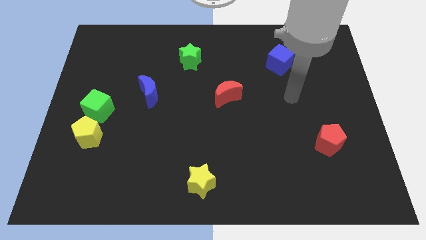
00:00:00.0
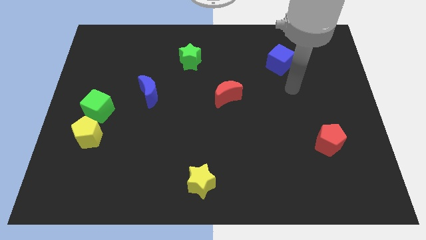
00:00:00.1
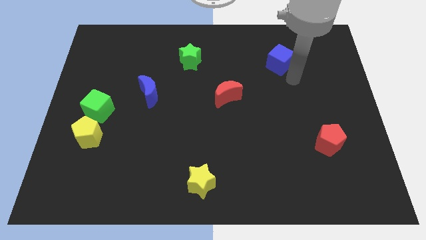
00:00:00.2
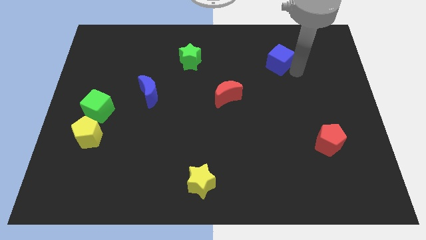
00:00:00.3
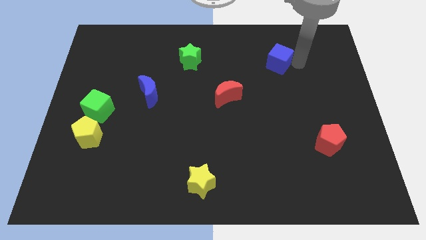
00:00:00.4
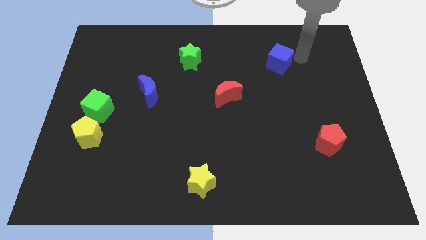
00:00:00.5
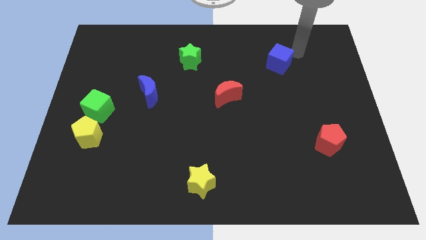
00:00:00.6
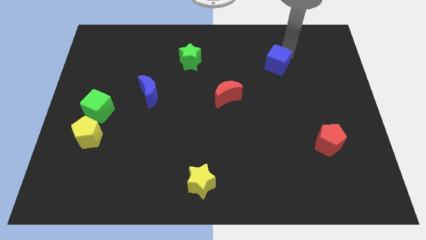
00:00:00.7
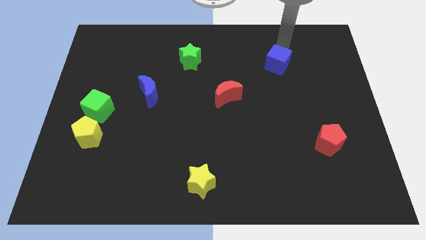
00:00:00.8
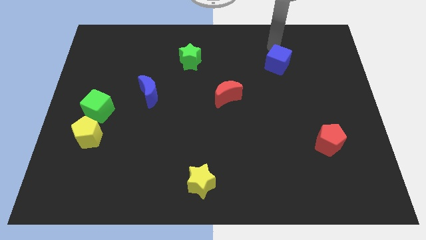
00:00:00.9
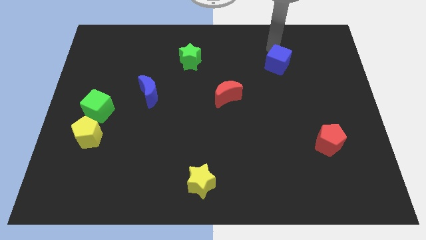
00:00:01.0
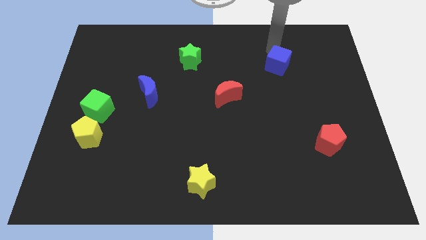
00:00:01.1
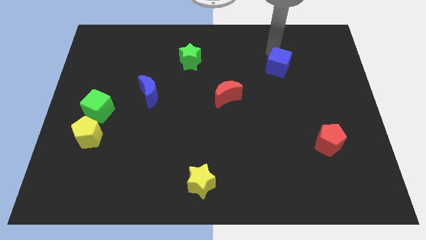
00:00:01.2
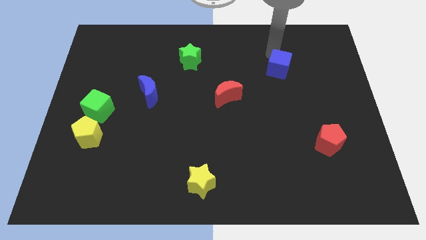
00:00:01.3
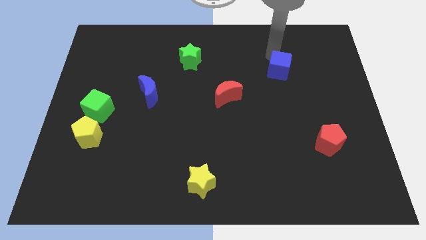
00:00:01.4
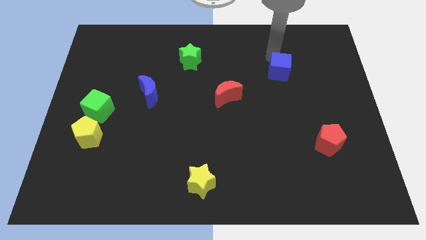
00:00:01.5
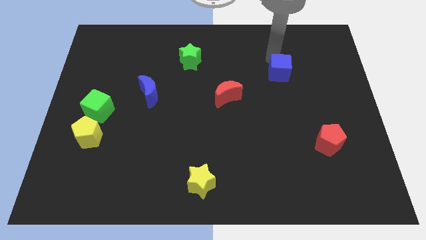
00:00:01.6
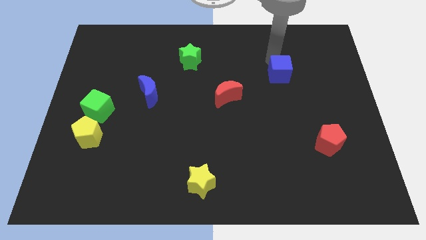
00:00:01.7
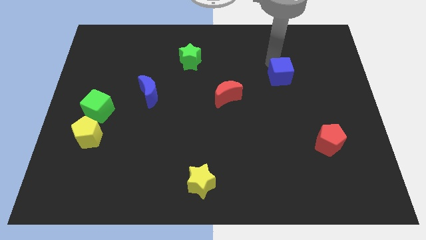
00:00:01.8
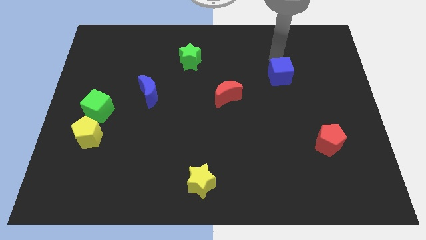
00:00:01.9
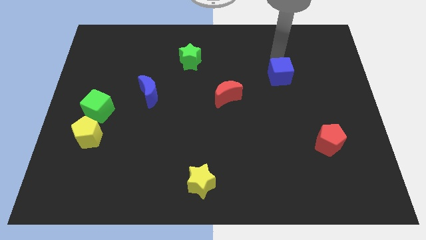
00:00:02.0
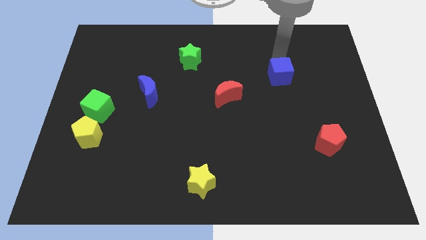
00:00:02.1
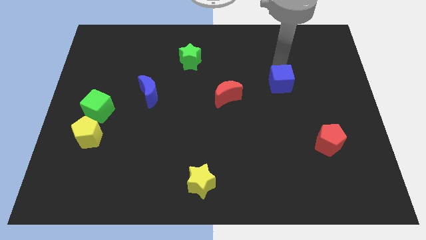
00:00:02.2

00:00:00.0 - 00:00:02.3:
slightly slide the blue cube down

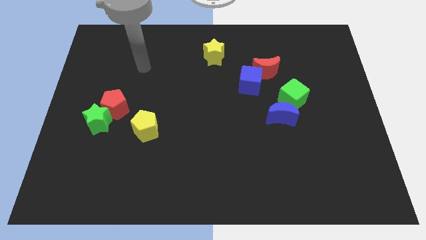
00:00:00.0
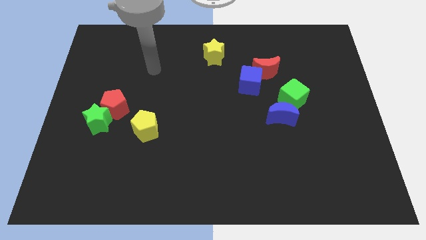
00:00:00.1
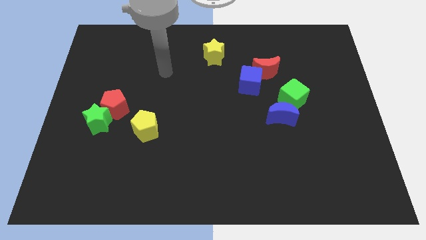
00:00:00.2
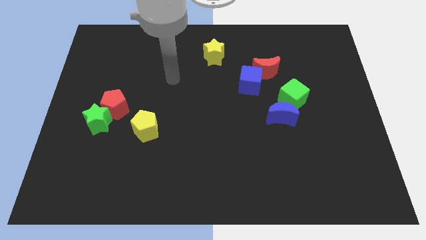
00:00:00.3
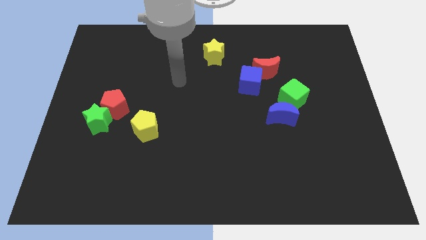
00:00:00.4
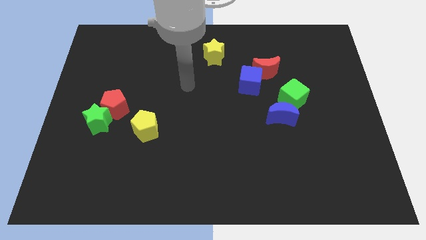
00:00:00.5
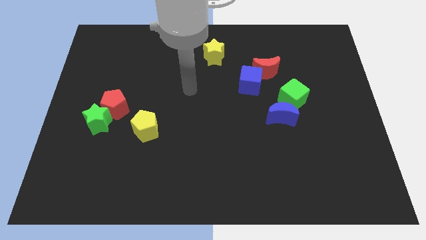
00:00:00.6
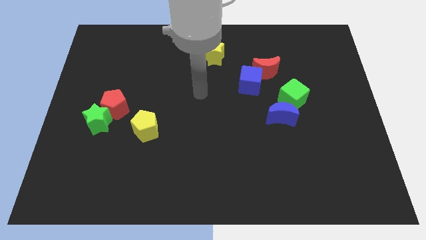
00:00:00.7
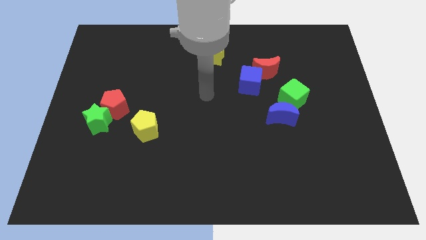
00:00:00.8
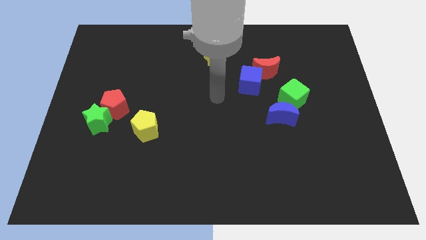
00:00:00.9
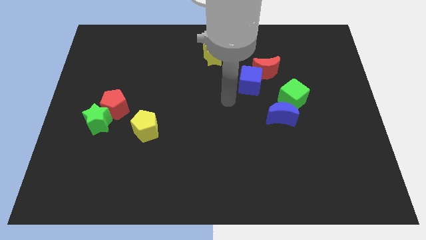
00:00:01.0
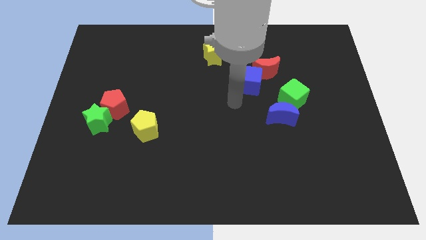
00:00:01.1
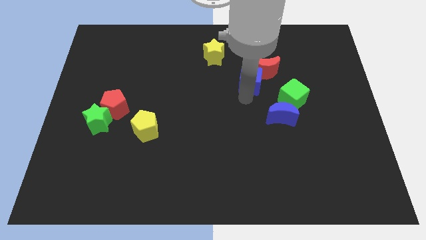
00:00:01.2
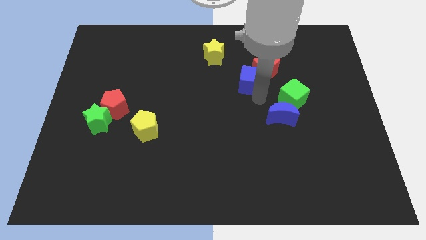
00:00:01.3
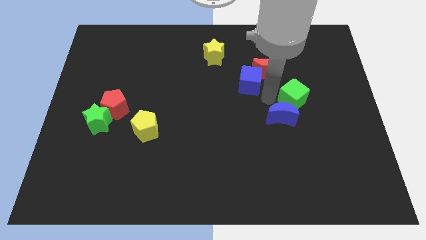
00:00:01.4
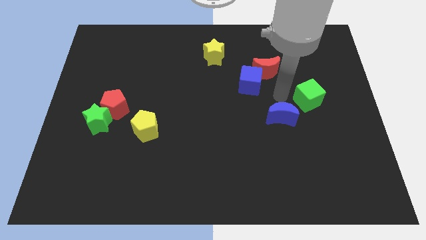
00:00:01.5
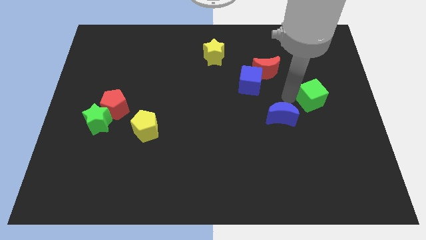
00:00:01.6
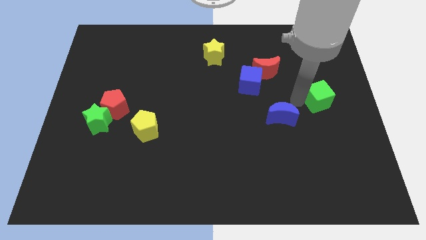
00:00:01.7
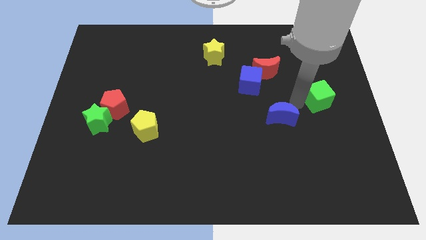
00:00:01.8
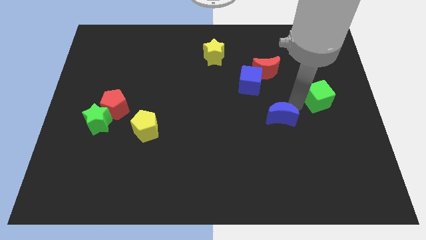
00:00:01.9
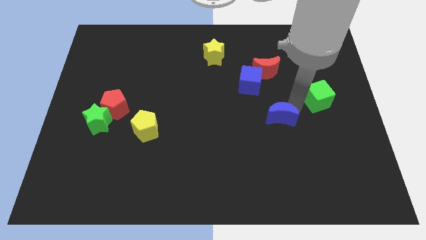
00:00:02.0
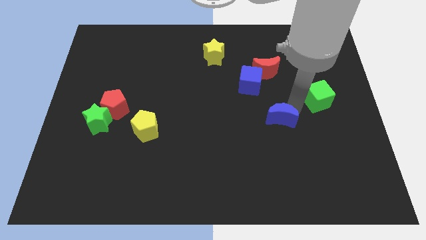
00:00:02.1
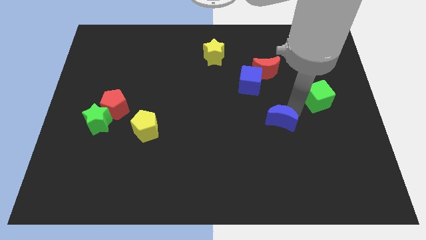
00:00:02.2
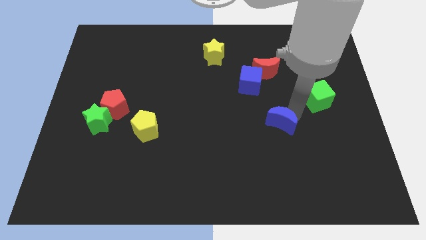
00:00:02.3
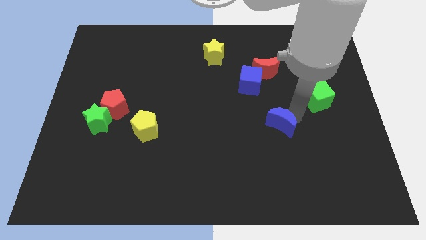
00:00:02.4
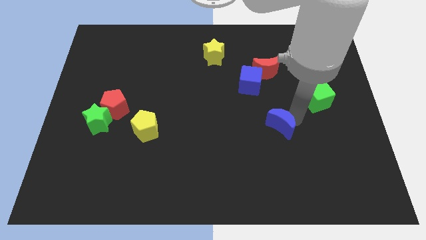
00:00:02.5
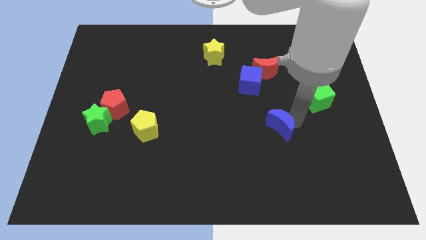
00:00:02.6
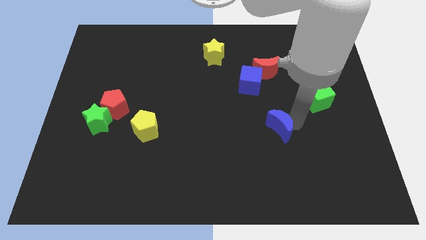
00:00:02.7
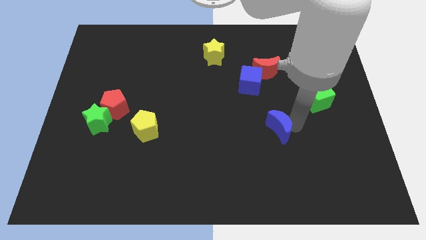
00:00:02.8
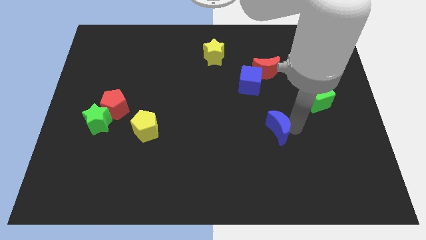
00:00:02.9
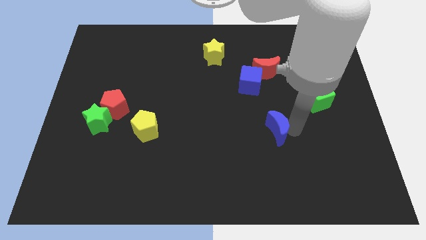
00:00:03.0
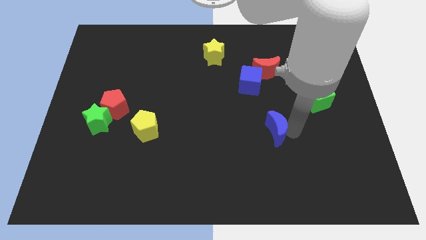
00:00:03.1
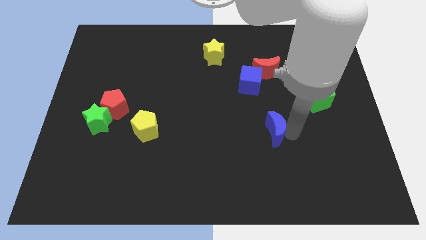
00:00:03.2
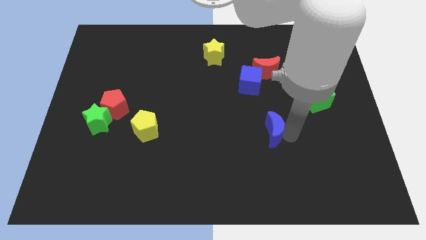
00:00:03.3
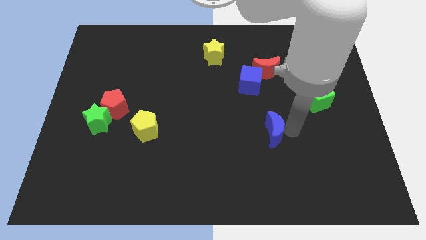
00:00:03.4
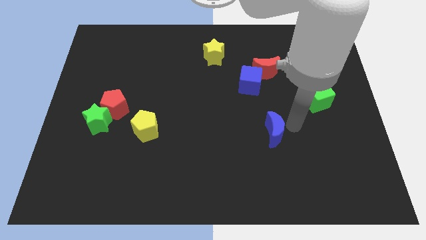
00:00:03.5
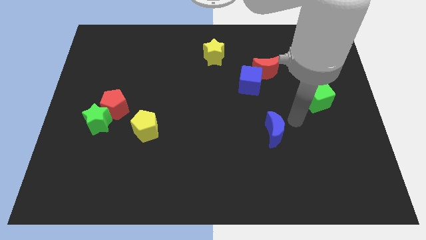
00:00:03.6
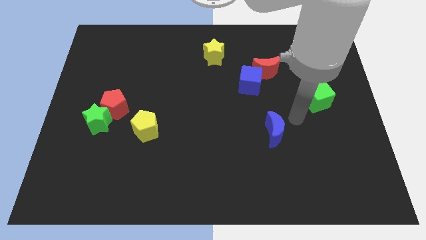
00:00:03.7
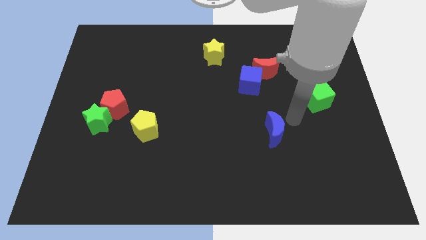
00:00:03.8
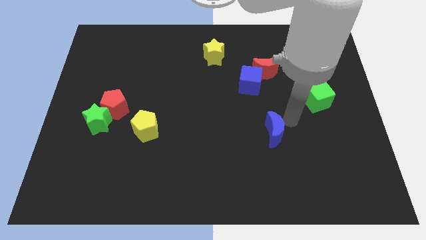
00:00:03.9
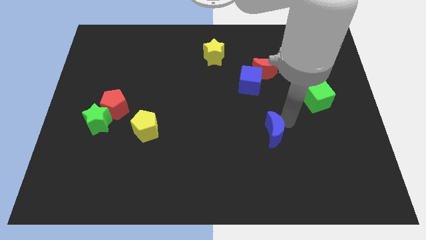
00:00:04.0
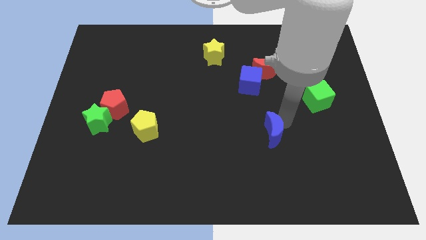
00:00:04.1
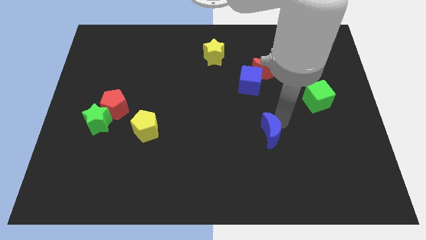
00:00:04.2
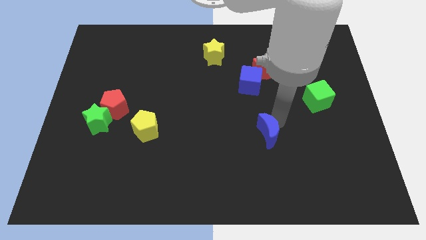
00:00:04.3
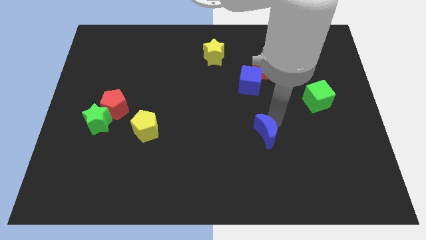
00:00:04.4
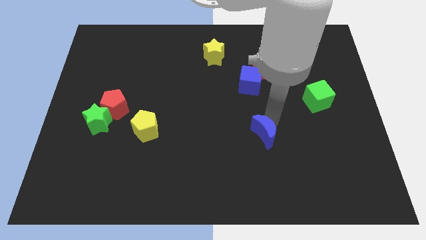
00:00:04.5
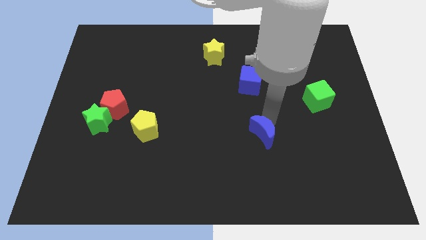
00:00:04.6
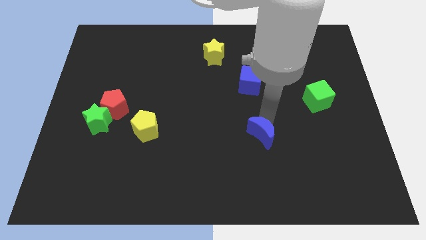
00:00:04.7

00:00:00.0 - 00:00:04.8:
slightly push the blue moon diagonally down and to the left

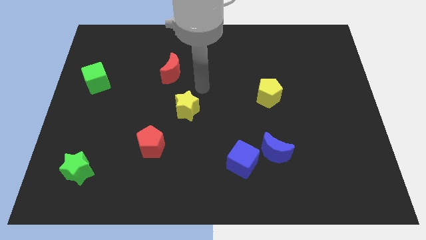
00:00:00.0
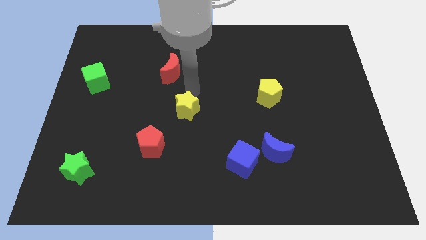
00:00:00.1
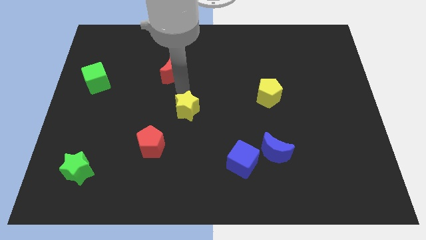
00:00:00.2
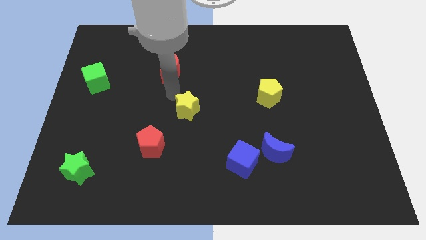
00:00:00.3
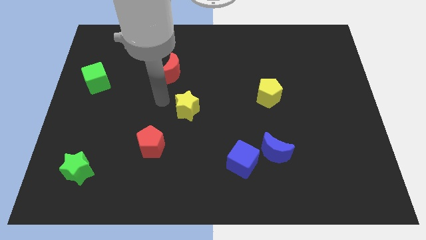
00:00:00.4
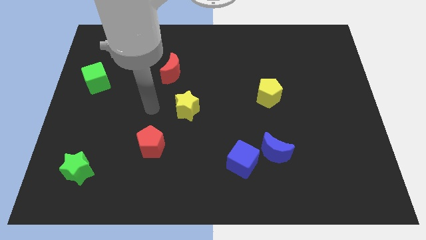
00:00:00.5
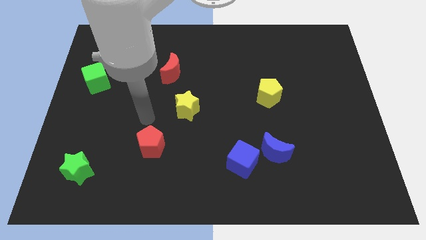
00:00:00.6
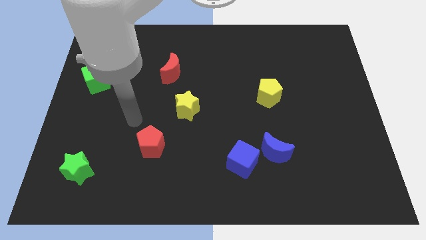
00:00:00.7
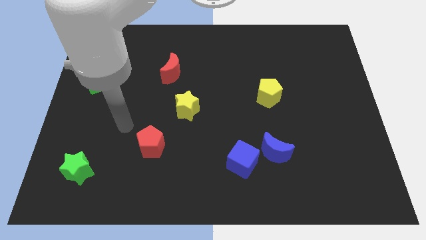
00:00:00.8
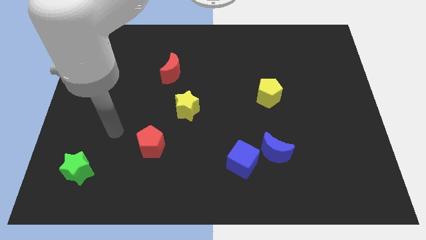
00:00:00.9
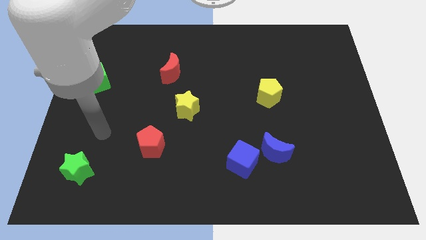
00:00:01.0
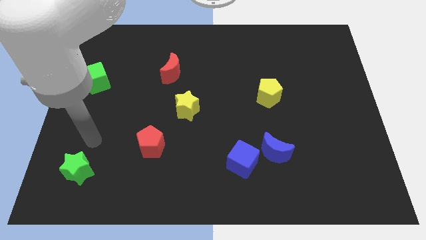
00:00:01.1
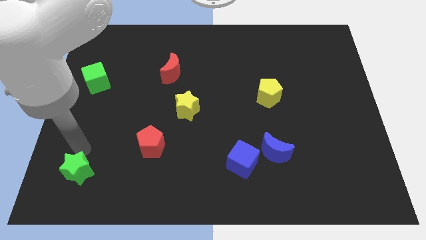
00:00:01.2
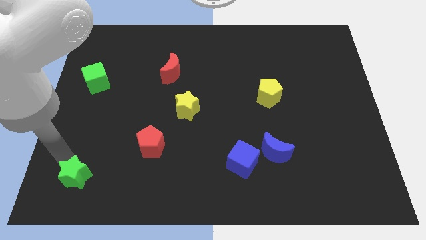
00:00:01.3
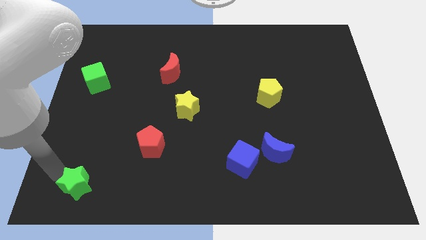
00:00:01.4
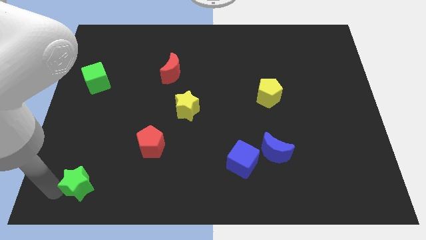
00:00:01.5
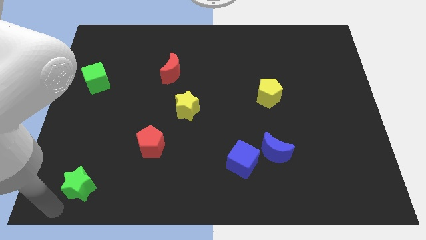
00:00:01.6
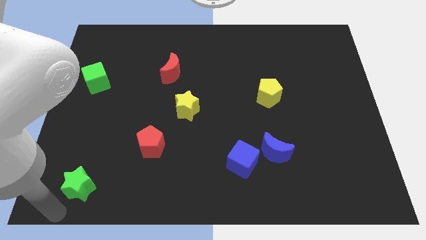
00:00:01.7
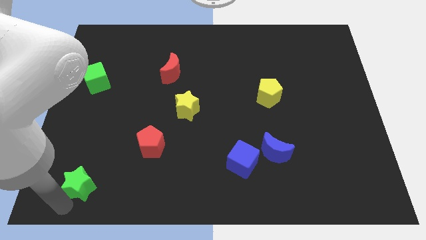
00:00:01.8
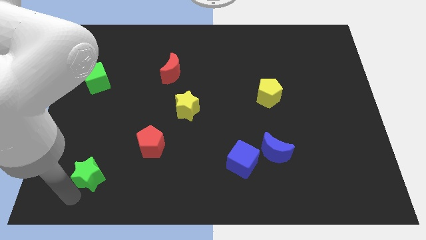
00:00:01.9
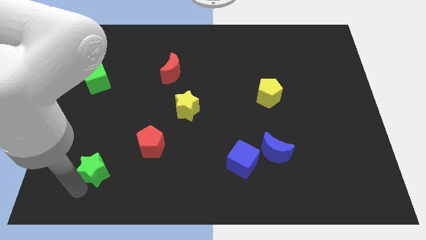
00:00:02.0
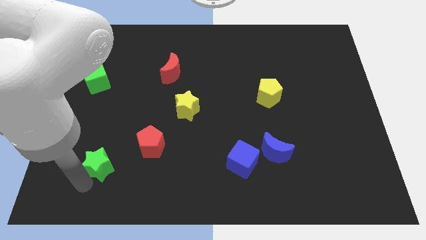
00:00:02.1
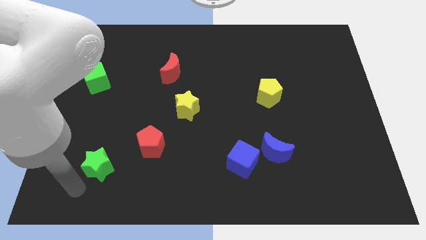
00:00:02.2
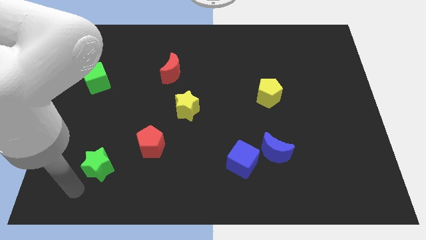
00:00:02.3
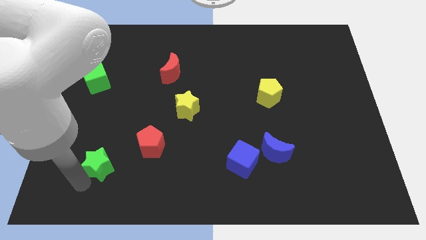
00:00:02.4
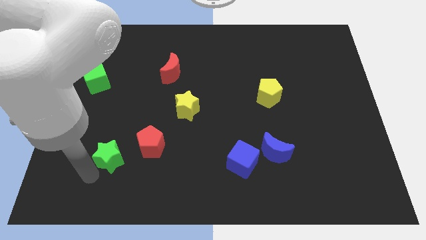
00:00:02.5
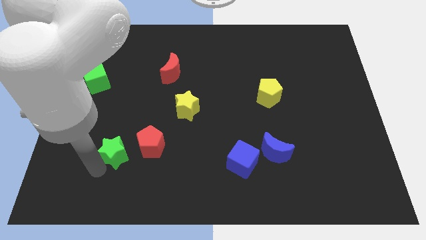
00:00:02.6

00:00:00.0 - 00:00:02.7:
slightly slide the green star upwards and right
